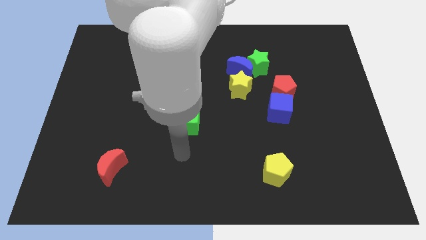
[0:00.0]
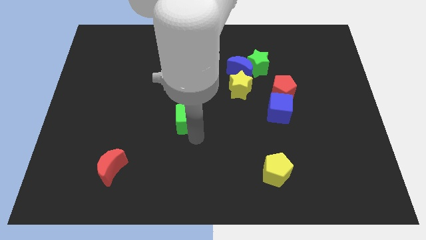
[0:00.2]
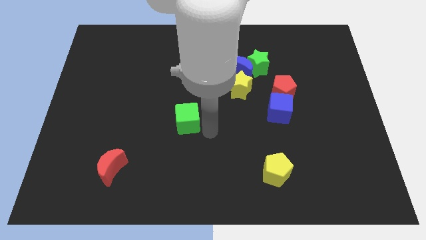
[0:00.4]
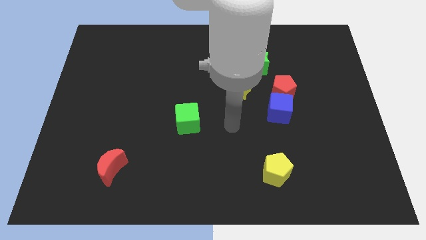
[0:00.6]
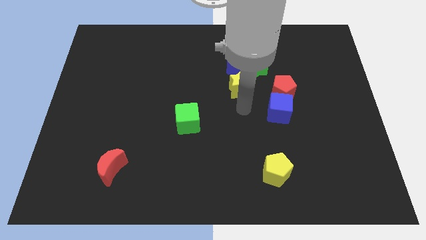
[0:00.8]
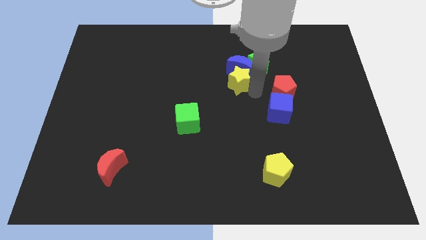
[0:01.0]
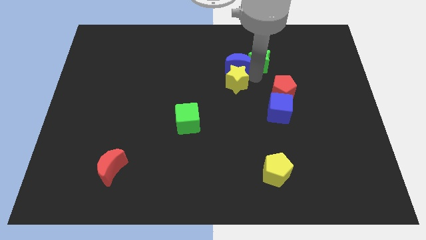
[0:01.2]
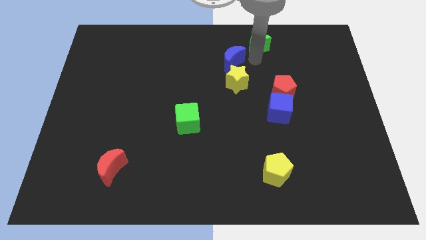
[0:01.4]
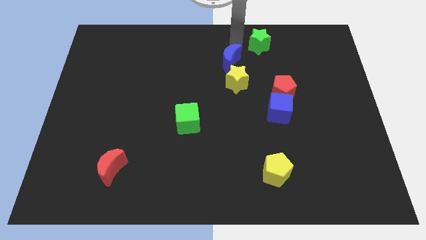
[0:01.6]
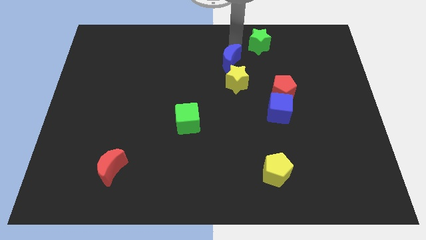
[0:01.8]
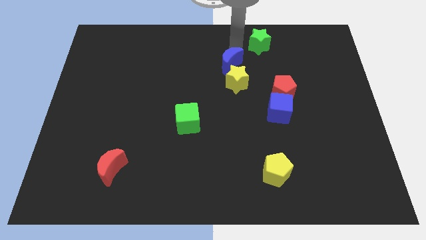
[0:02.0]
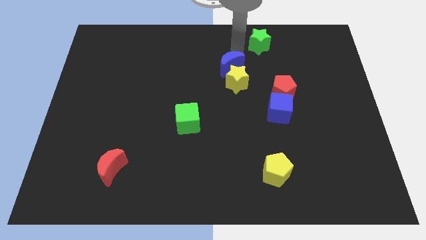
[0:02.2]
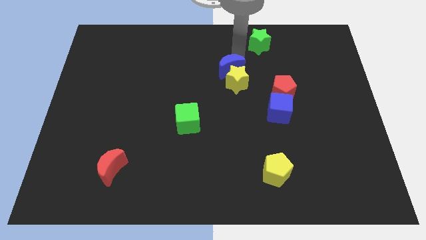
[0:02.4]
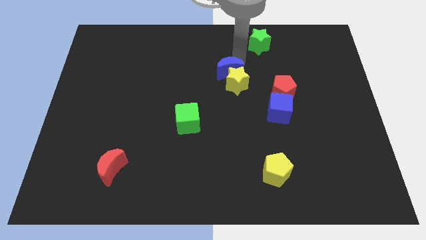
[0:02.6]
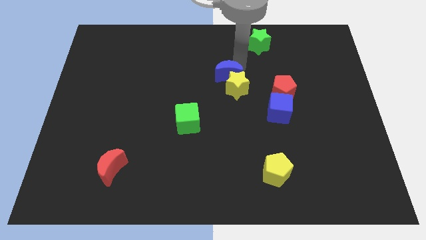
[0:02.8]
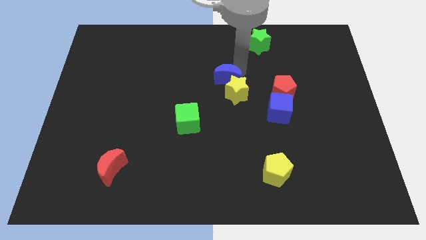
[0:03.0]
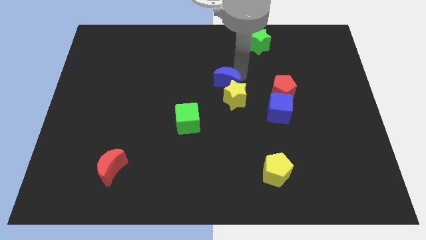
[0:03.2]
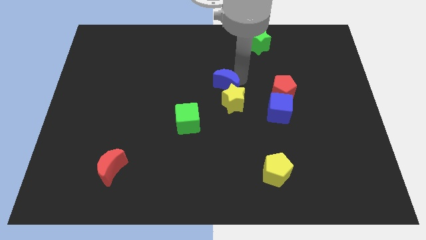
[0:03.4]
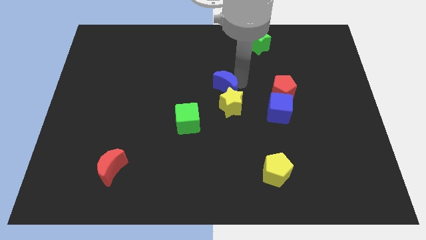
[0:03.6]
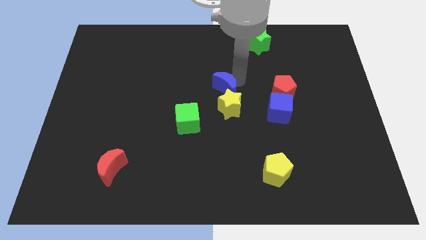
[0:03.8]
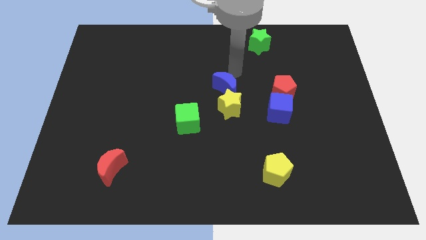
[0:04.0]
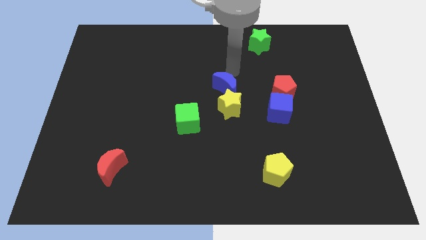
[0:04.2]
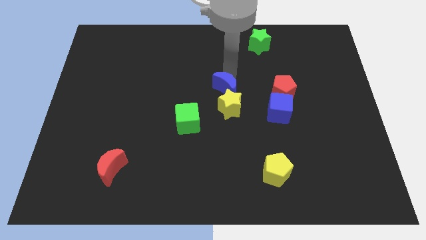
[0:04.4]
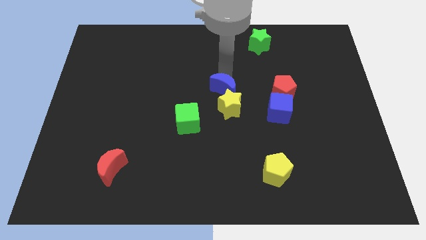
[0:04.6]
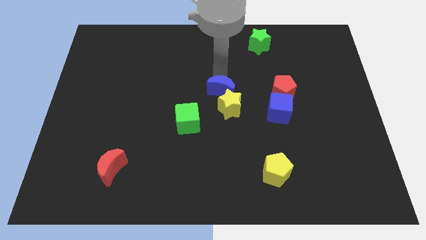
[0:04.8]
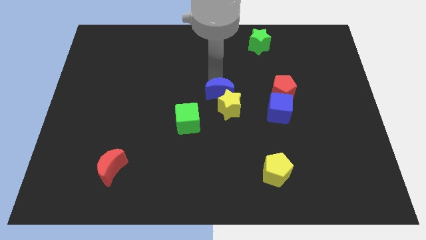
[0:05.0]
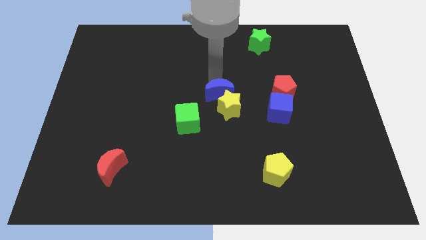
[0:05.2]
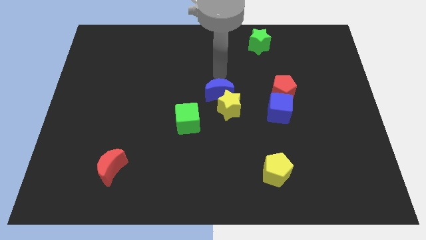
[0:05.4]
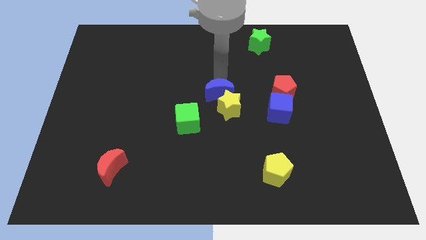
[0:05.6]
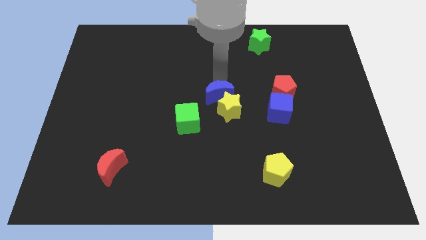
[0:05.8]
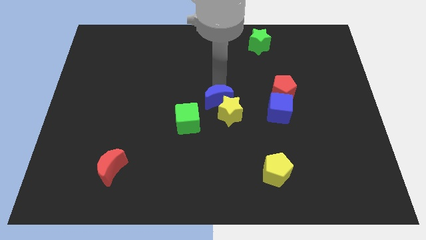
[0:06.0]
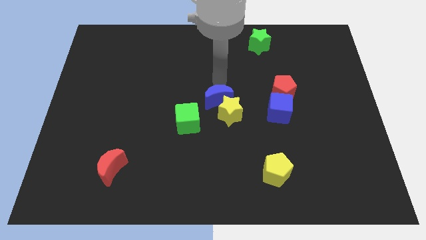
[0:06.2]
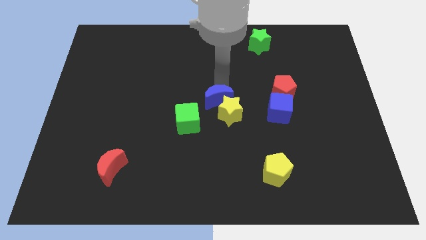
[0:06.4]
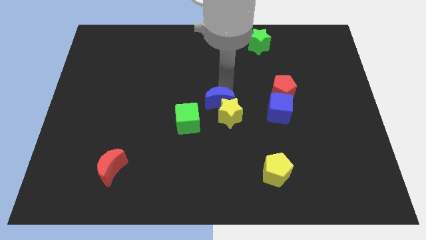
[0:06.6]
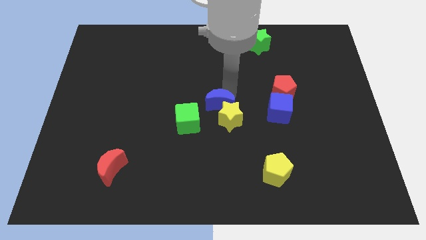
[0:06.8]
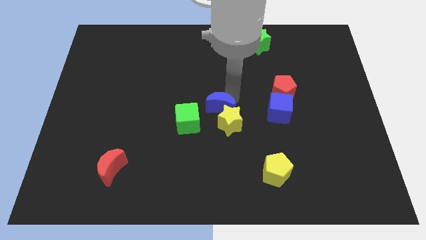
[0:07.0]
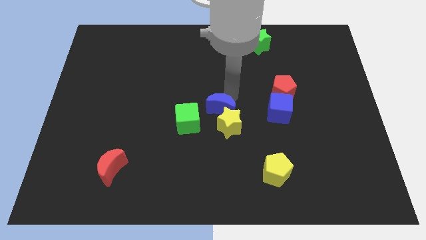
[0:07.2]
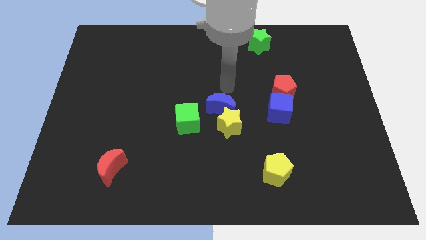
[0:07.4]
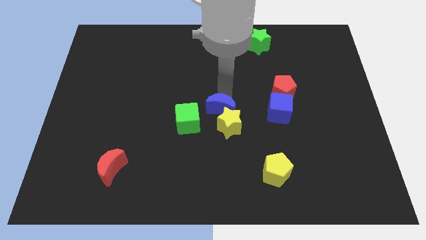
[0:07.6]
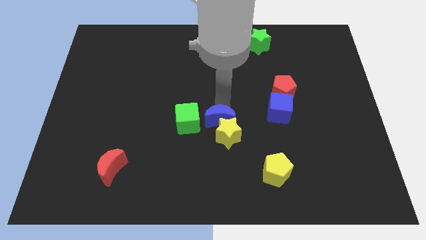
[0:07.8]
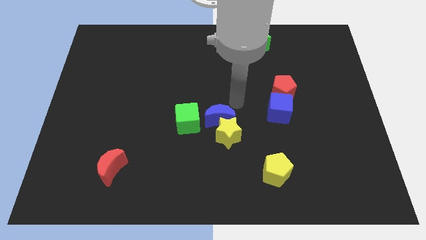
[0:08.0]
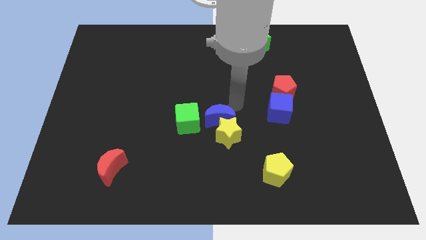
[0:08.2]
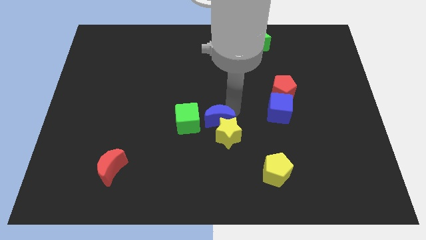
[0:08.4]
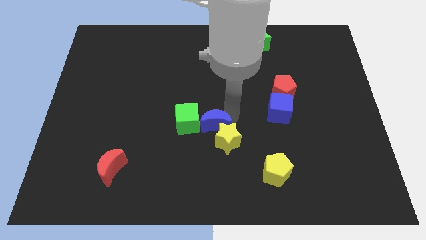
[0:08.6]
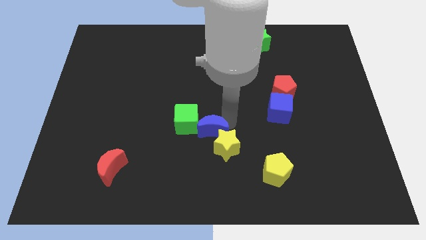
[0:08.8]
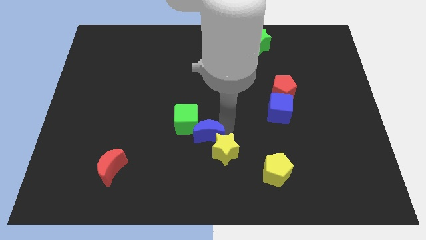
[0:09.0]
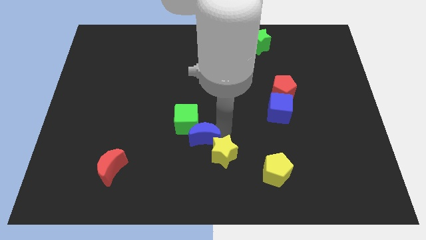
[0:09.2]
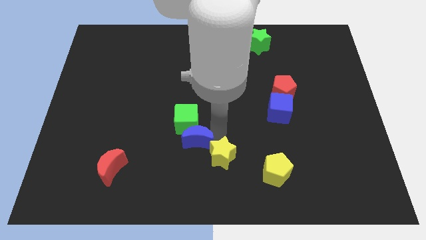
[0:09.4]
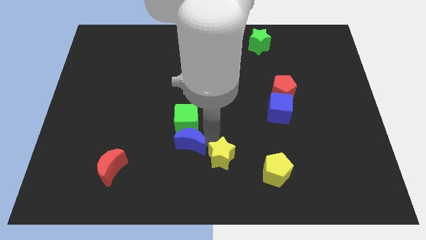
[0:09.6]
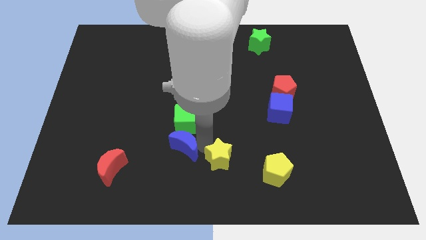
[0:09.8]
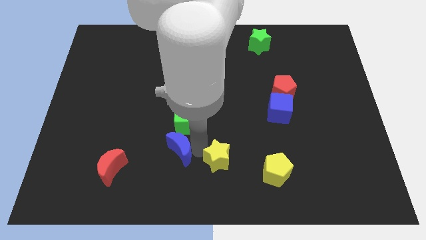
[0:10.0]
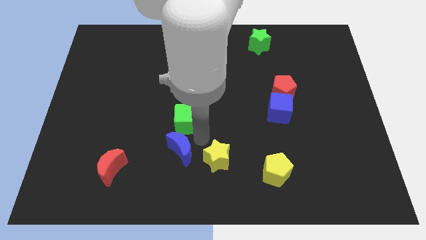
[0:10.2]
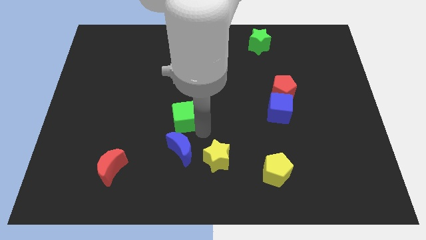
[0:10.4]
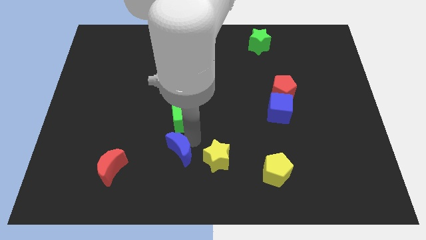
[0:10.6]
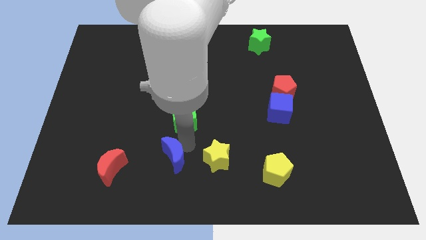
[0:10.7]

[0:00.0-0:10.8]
move the blue moon just right of the red moon

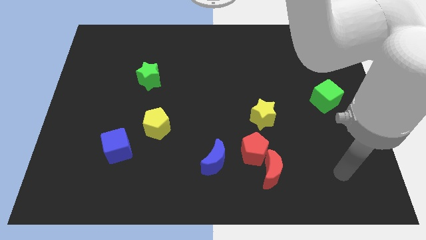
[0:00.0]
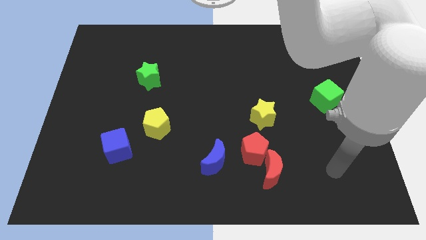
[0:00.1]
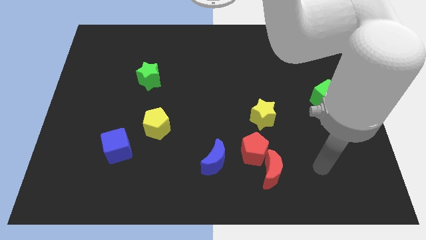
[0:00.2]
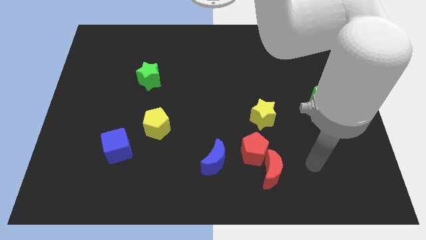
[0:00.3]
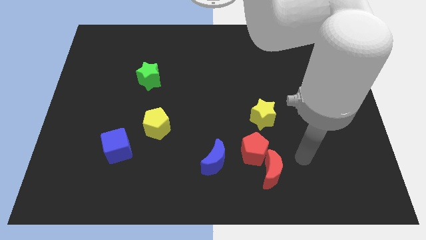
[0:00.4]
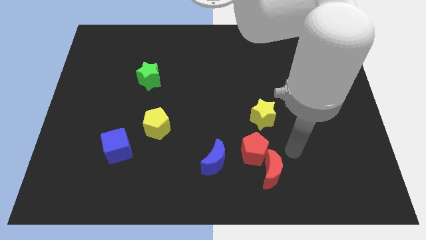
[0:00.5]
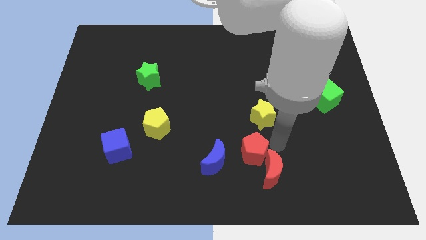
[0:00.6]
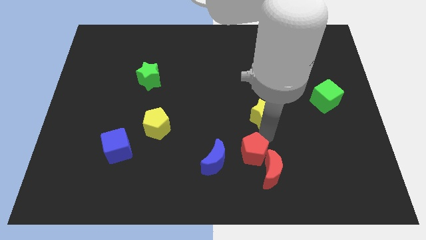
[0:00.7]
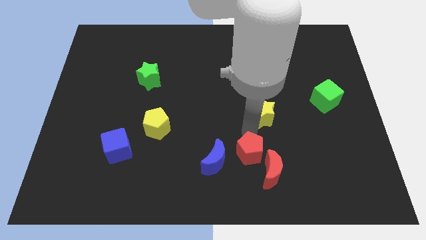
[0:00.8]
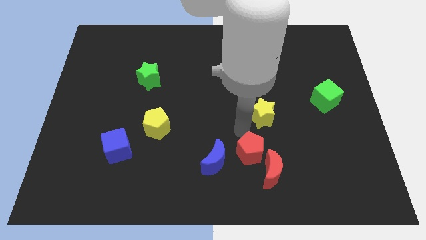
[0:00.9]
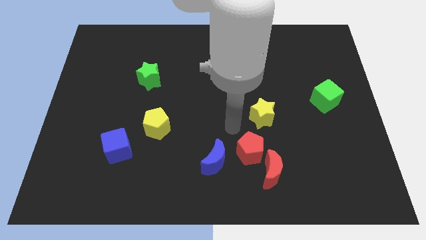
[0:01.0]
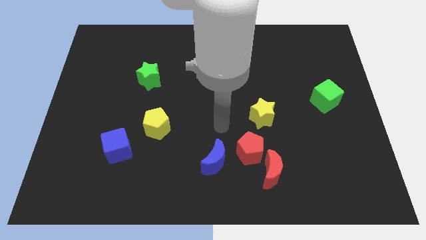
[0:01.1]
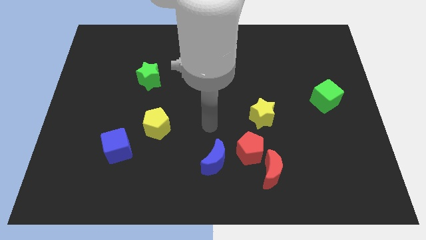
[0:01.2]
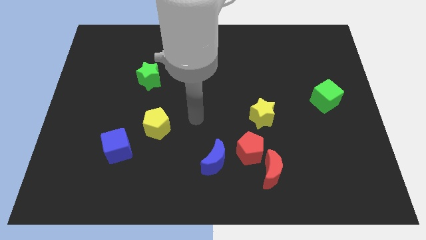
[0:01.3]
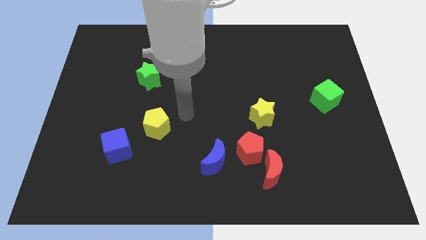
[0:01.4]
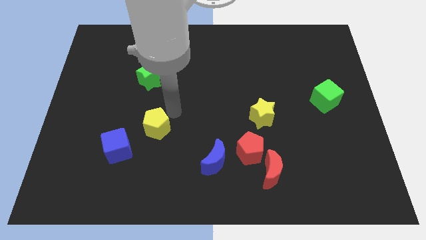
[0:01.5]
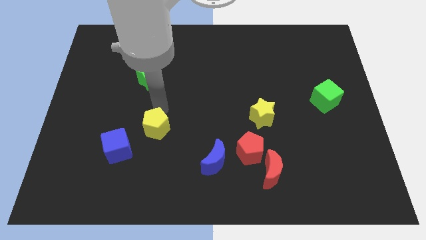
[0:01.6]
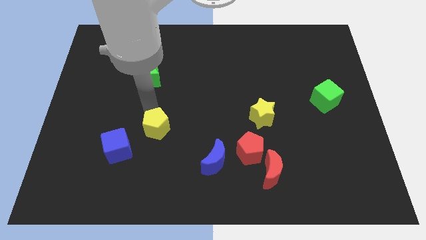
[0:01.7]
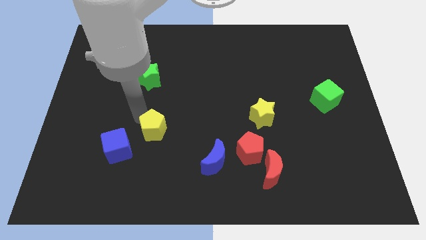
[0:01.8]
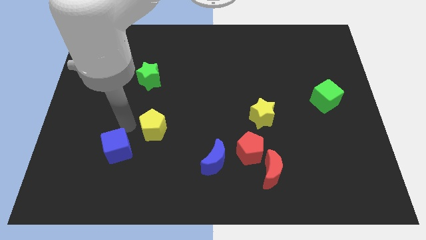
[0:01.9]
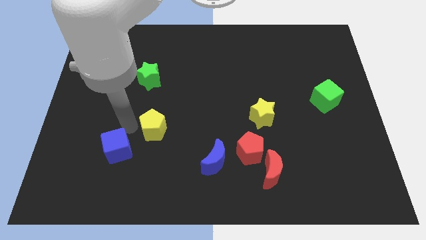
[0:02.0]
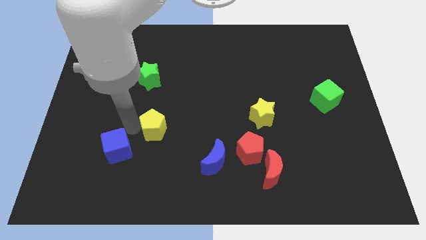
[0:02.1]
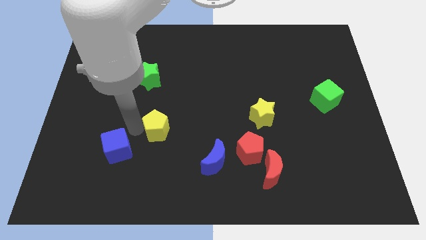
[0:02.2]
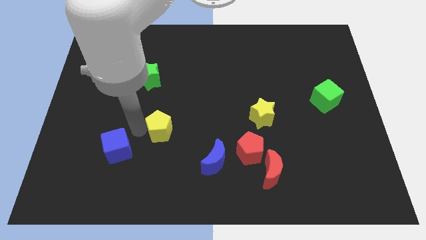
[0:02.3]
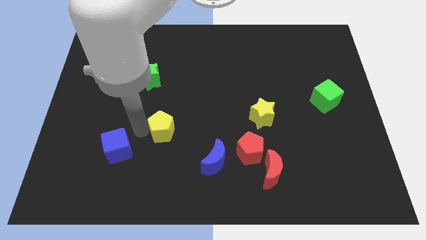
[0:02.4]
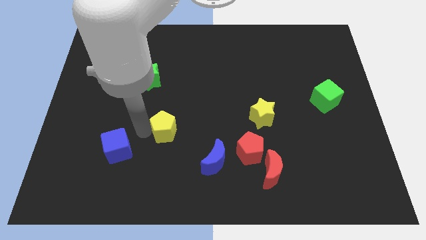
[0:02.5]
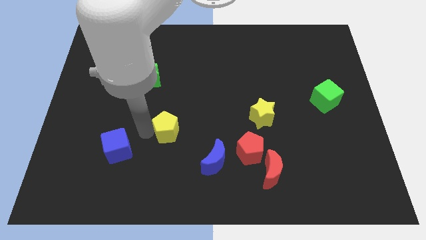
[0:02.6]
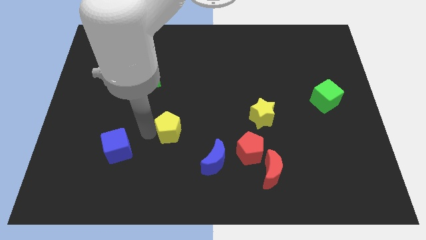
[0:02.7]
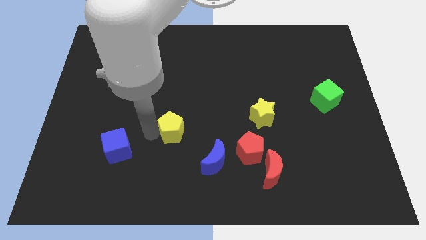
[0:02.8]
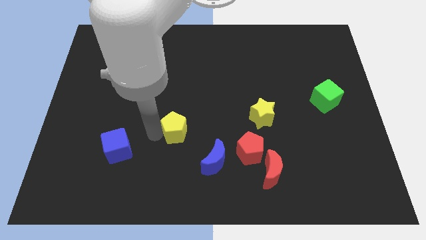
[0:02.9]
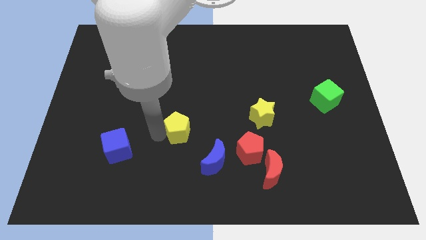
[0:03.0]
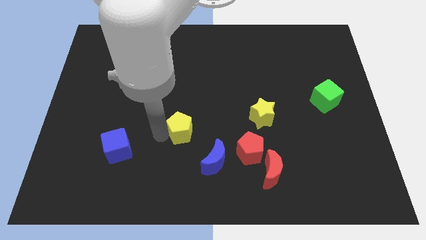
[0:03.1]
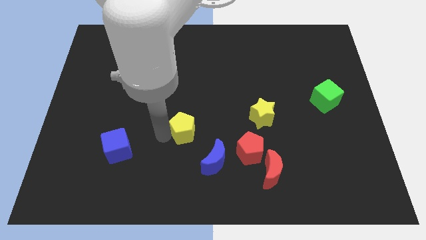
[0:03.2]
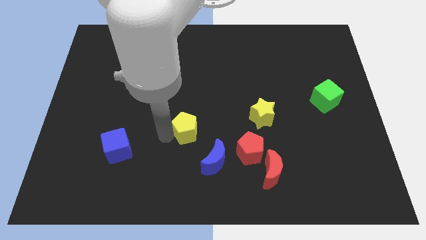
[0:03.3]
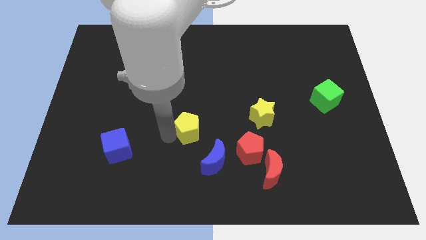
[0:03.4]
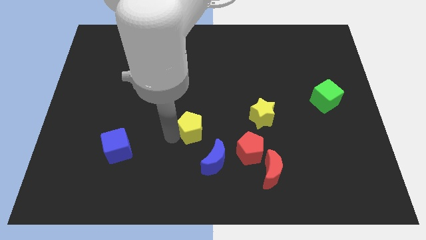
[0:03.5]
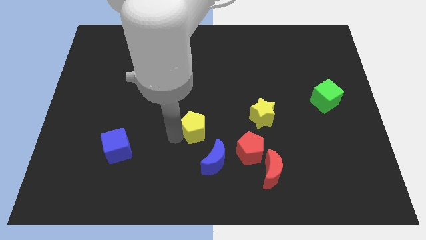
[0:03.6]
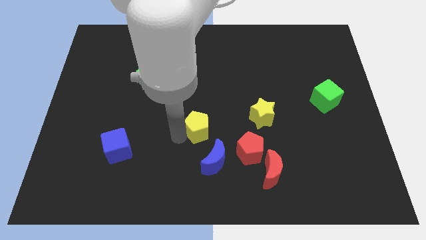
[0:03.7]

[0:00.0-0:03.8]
slide the yellow pentagon just left of the yellow star
